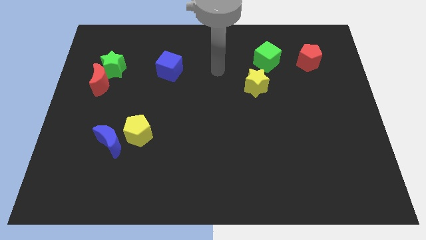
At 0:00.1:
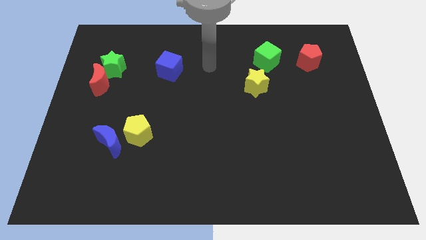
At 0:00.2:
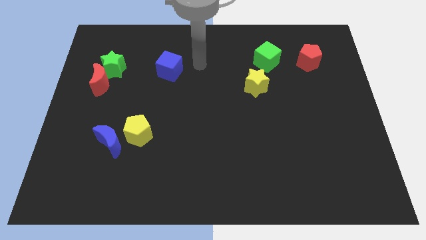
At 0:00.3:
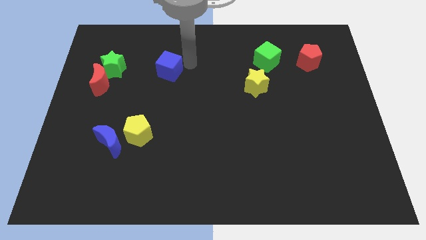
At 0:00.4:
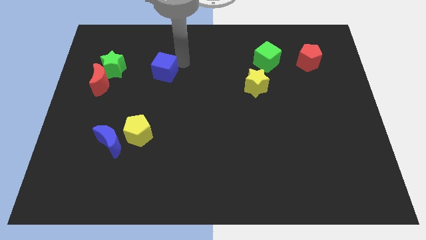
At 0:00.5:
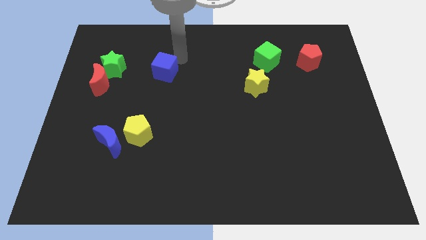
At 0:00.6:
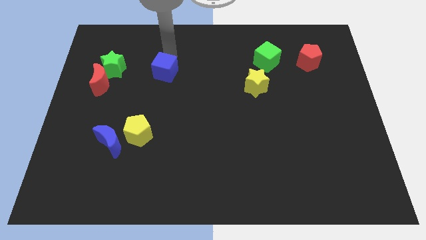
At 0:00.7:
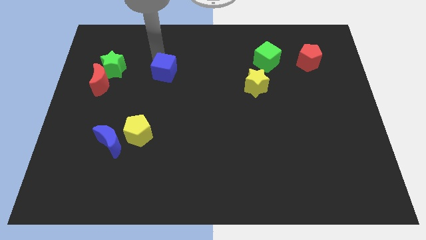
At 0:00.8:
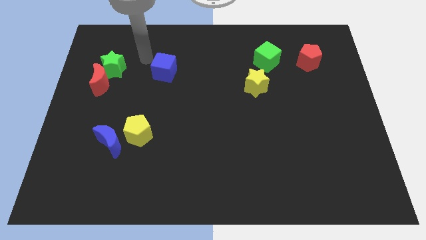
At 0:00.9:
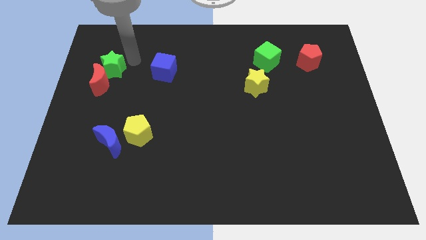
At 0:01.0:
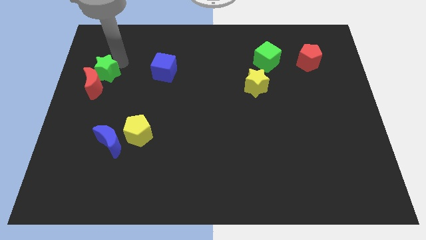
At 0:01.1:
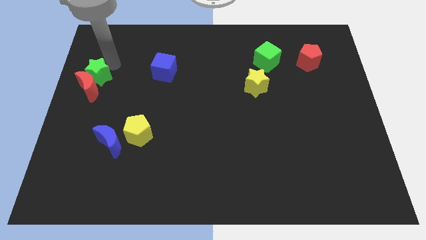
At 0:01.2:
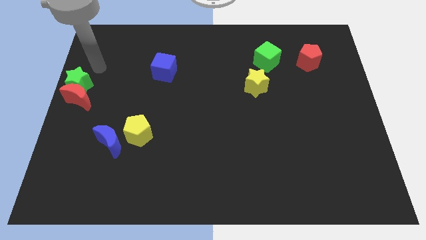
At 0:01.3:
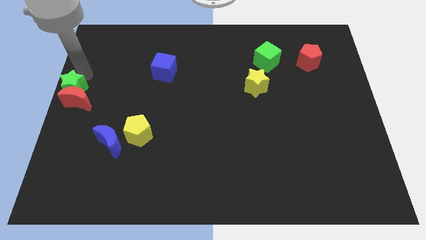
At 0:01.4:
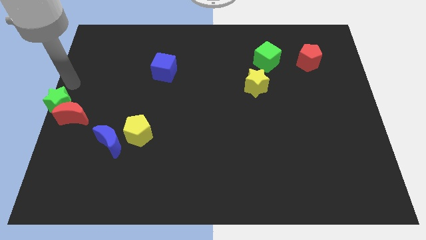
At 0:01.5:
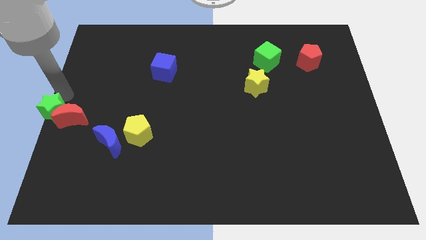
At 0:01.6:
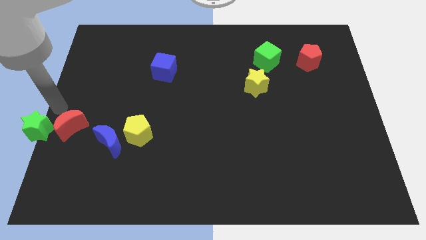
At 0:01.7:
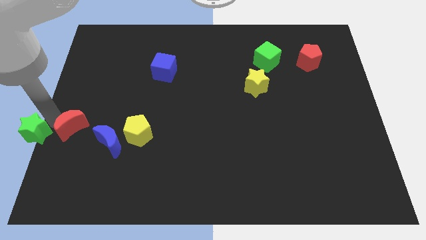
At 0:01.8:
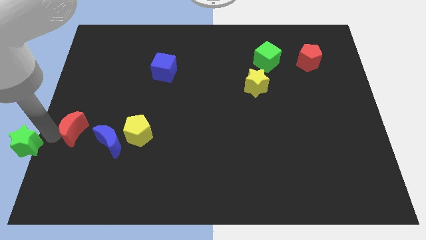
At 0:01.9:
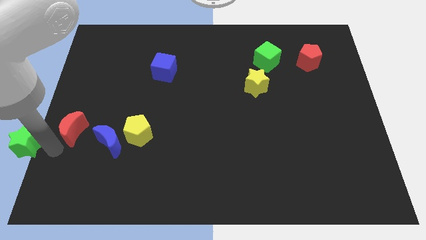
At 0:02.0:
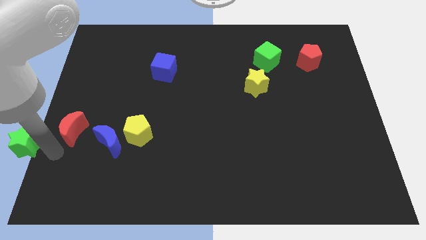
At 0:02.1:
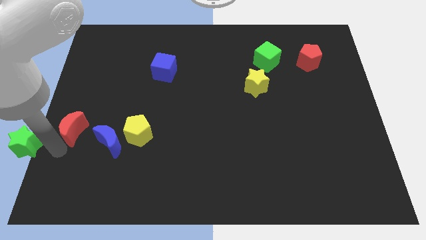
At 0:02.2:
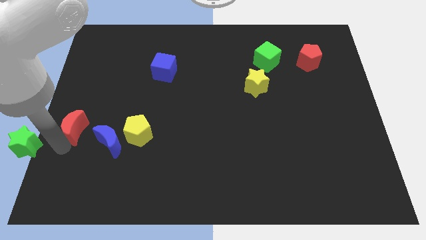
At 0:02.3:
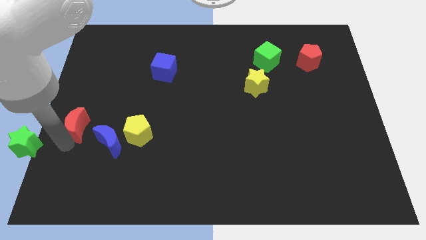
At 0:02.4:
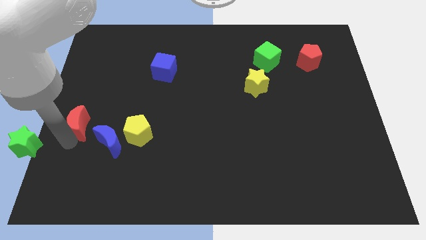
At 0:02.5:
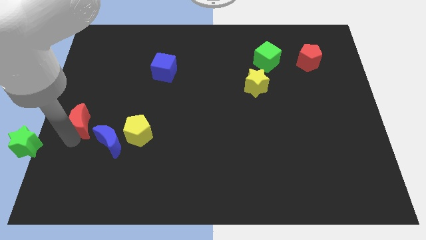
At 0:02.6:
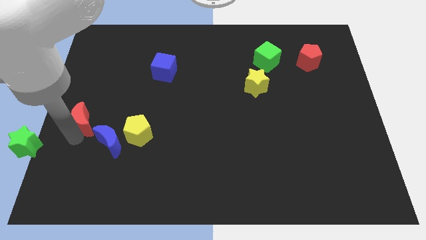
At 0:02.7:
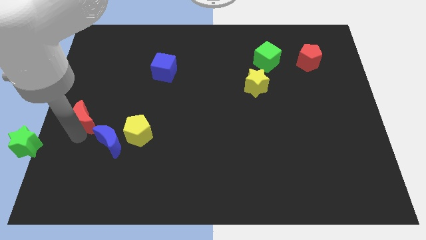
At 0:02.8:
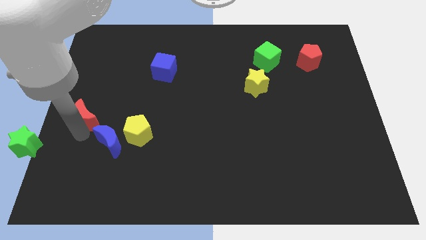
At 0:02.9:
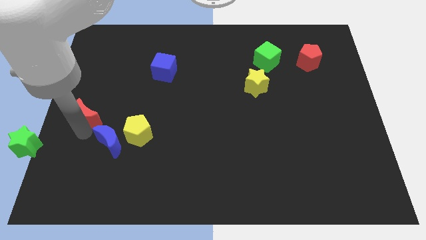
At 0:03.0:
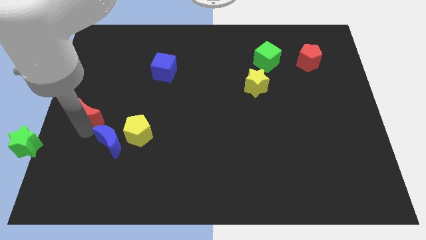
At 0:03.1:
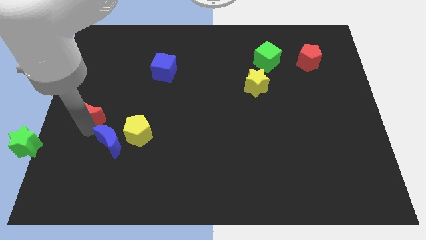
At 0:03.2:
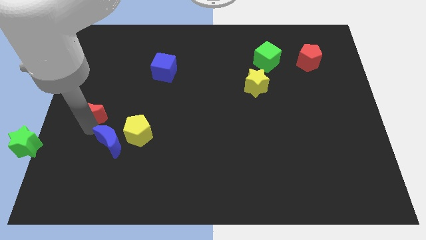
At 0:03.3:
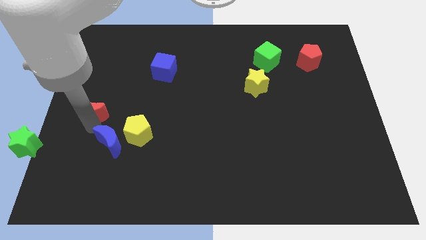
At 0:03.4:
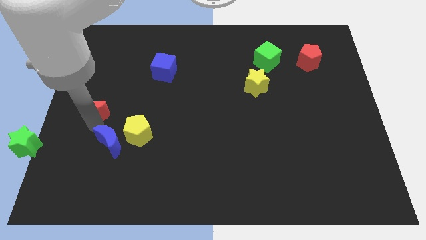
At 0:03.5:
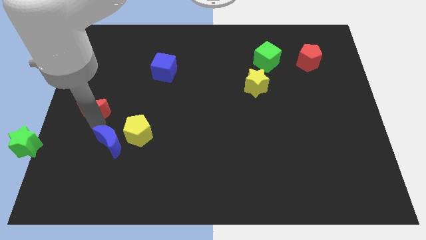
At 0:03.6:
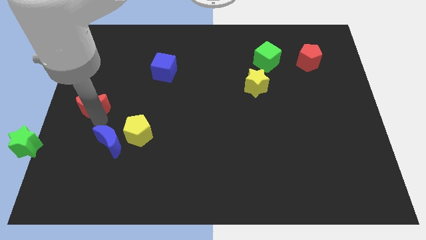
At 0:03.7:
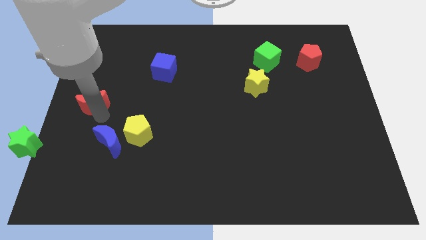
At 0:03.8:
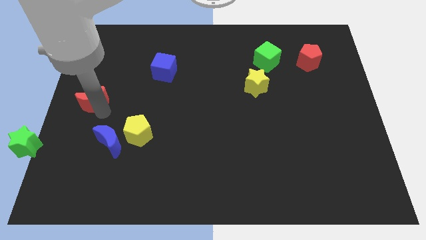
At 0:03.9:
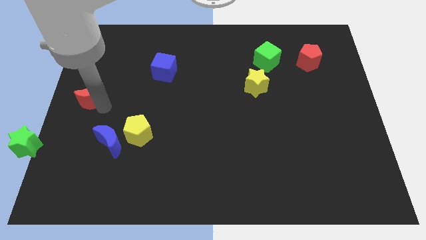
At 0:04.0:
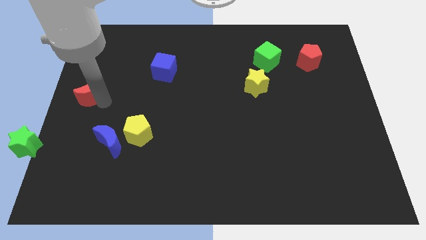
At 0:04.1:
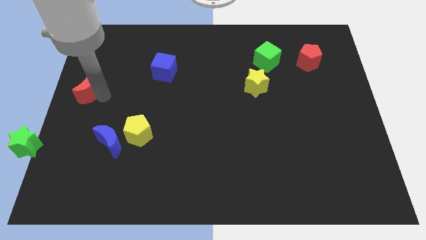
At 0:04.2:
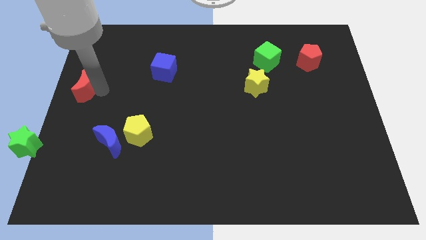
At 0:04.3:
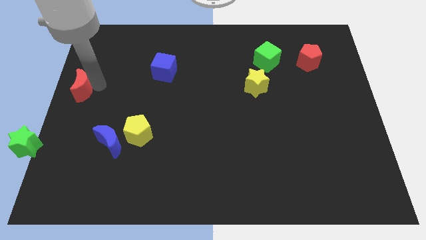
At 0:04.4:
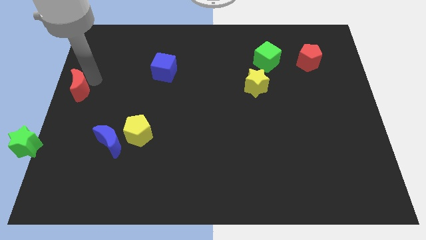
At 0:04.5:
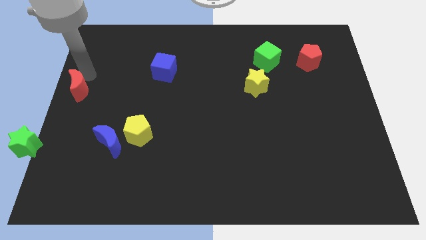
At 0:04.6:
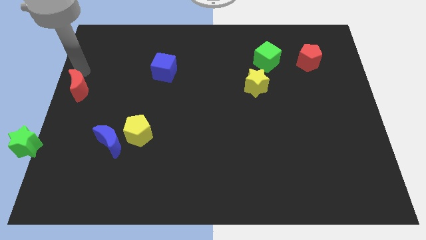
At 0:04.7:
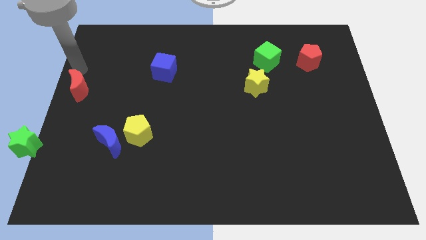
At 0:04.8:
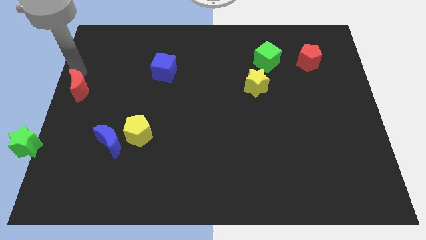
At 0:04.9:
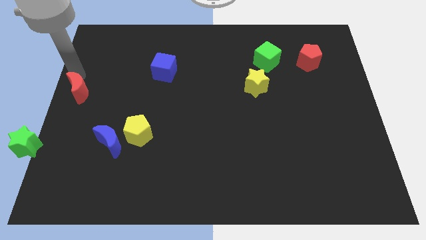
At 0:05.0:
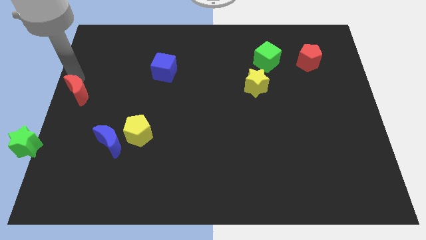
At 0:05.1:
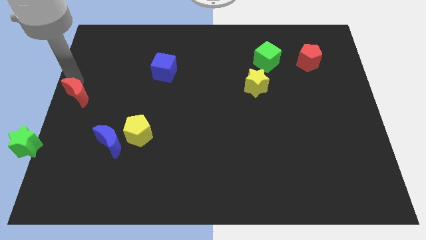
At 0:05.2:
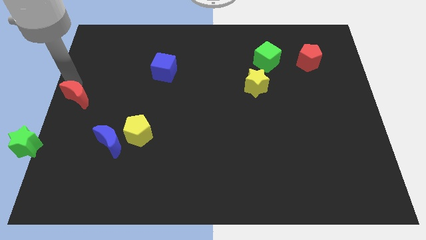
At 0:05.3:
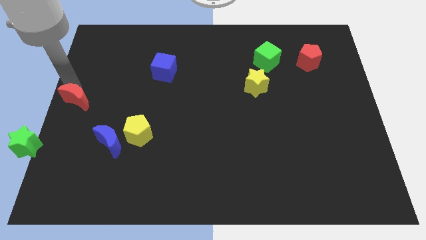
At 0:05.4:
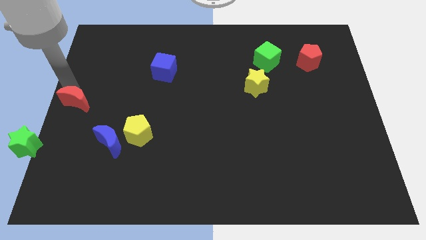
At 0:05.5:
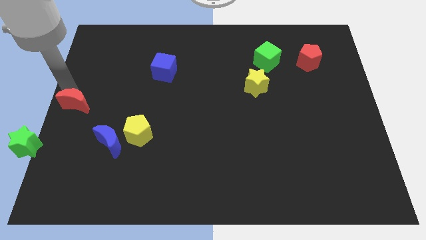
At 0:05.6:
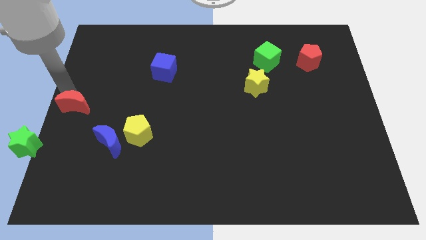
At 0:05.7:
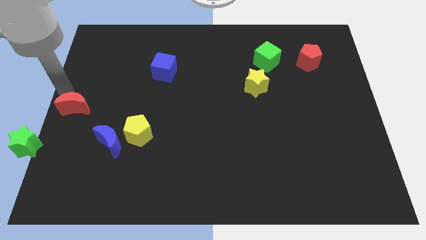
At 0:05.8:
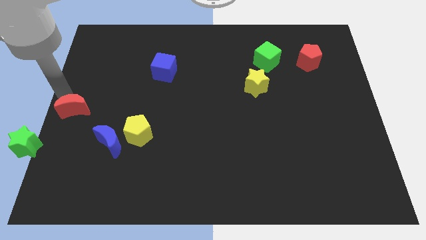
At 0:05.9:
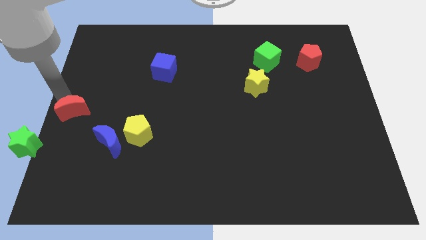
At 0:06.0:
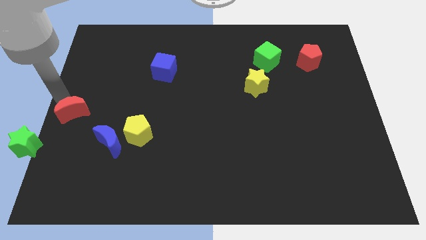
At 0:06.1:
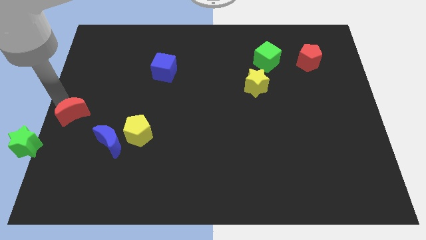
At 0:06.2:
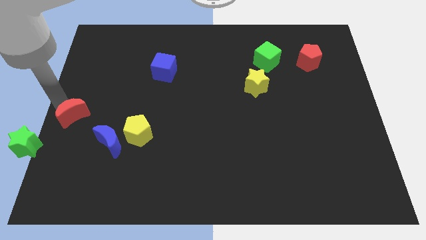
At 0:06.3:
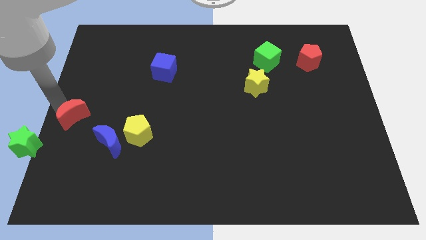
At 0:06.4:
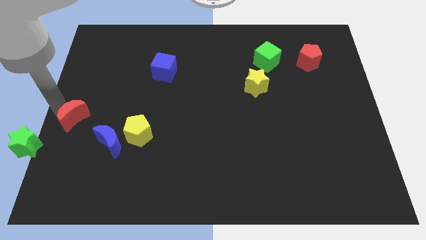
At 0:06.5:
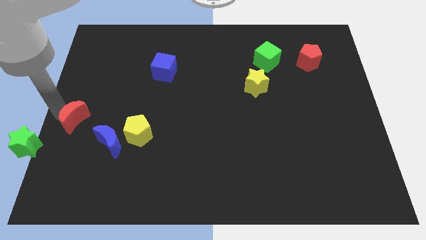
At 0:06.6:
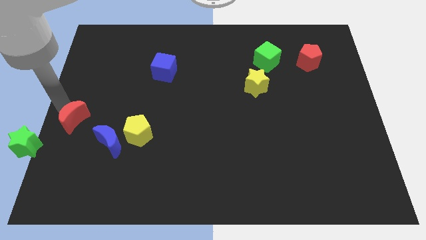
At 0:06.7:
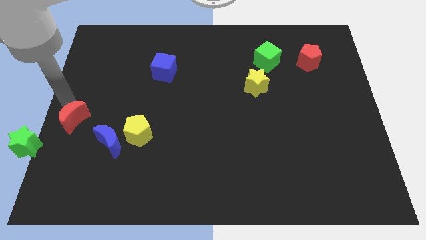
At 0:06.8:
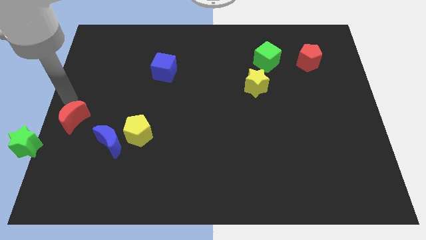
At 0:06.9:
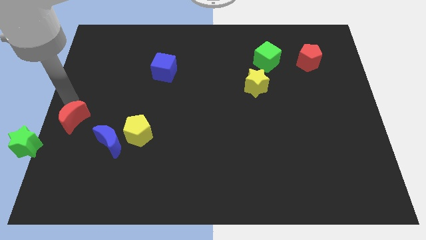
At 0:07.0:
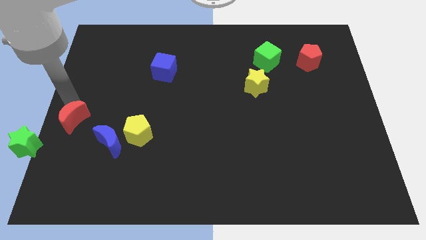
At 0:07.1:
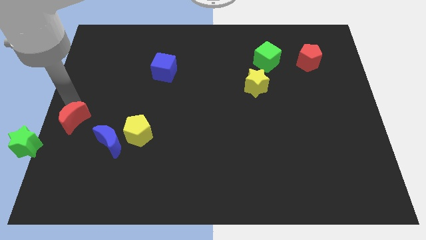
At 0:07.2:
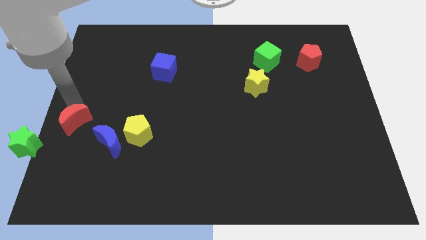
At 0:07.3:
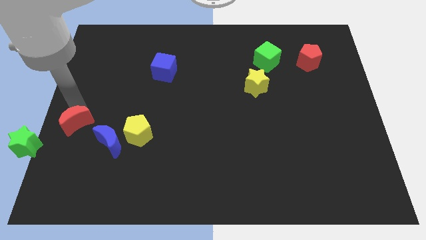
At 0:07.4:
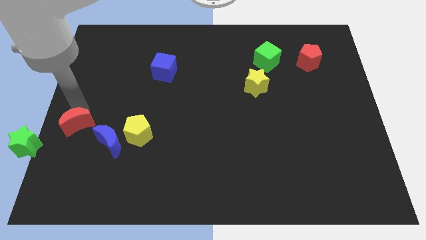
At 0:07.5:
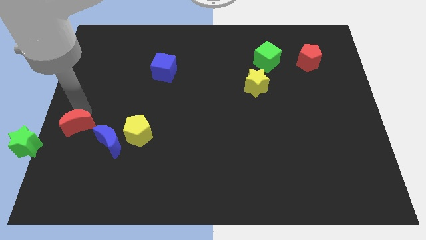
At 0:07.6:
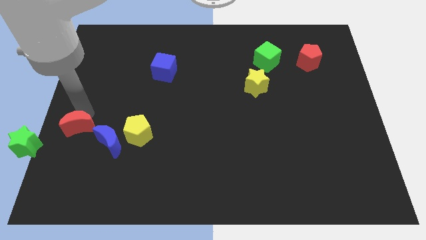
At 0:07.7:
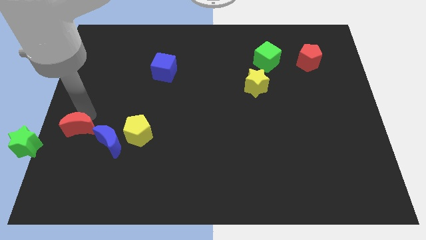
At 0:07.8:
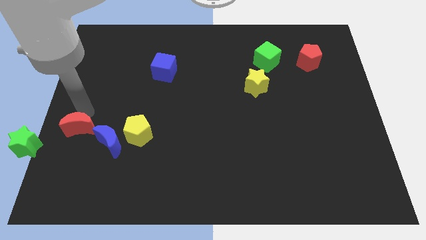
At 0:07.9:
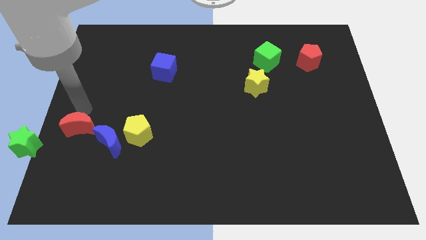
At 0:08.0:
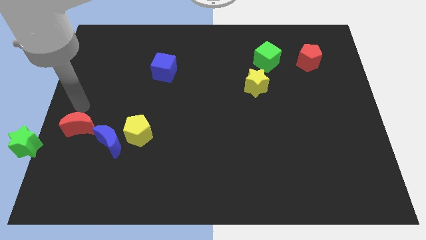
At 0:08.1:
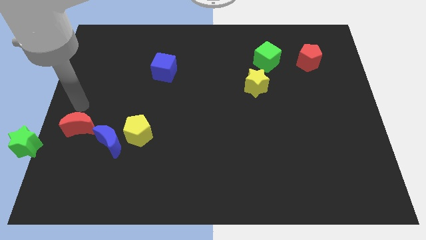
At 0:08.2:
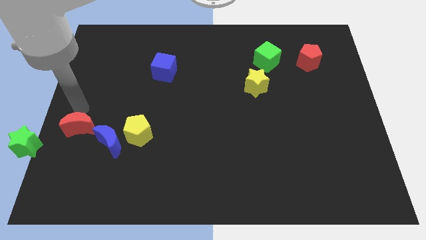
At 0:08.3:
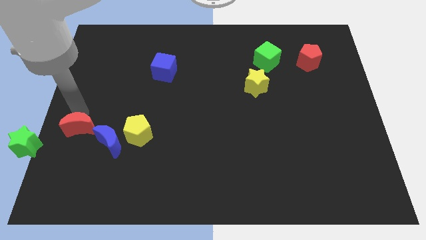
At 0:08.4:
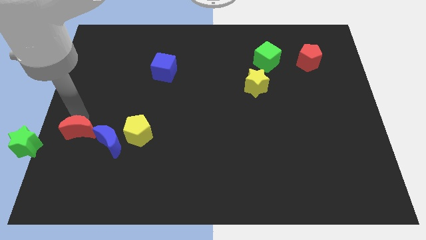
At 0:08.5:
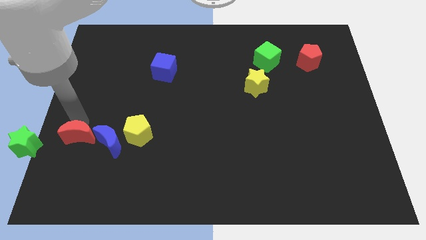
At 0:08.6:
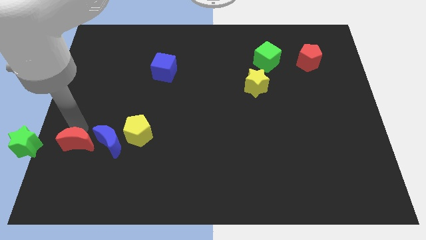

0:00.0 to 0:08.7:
push the red moon to the bottom left side of the blue moon
